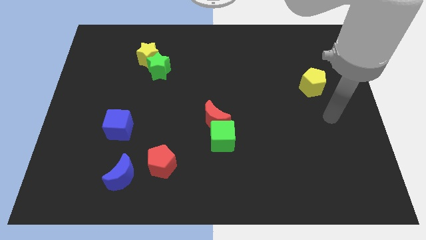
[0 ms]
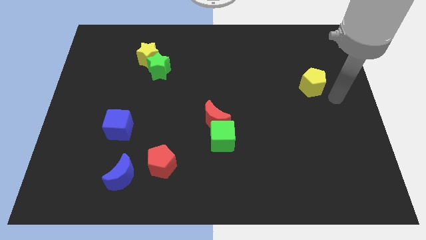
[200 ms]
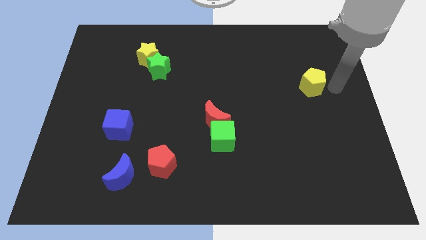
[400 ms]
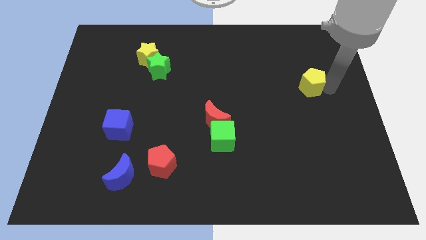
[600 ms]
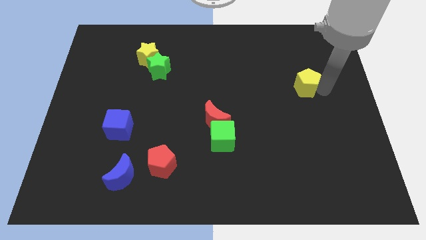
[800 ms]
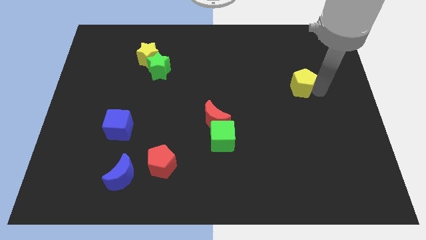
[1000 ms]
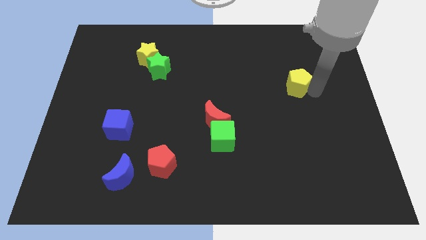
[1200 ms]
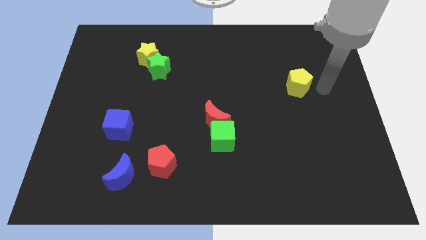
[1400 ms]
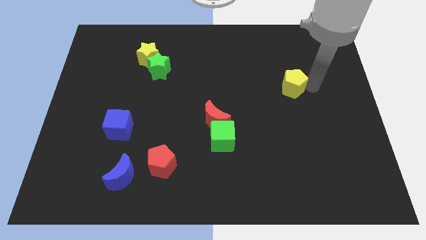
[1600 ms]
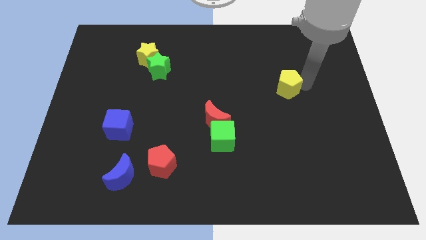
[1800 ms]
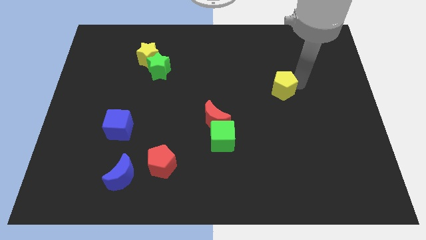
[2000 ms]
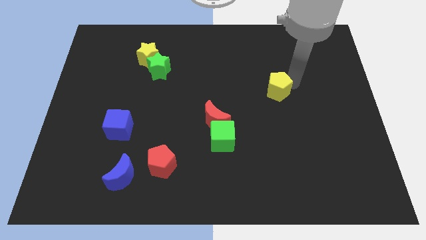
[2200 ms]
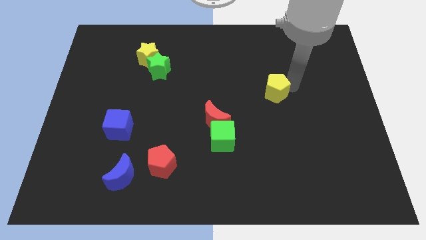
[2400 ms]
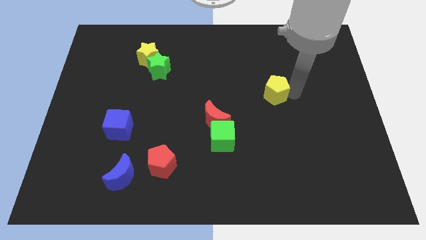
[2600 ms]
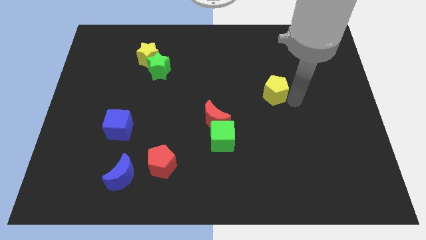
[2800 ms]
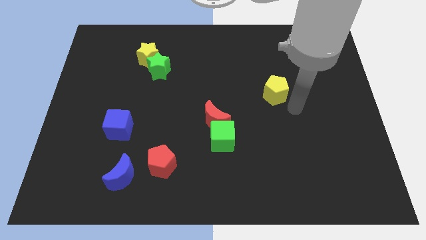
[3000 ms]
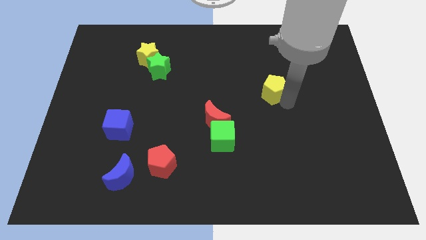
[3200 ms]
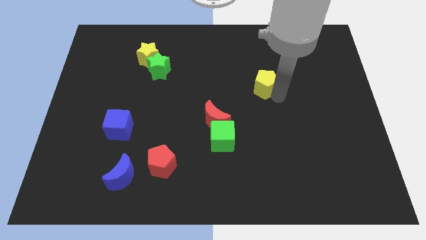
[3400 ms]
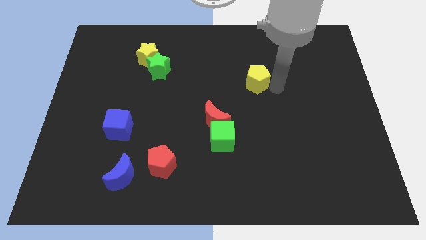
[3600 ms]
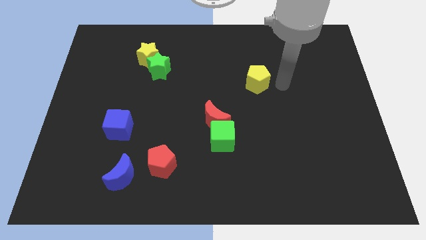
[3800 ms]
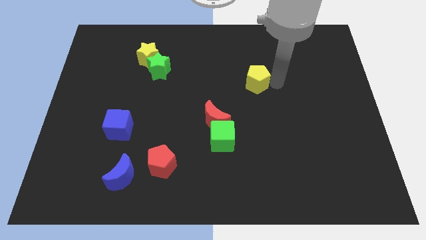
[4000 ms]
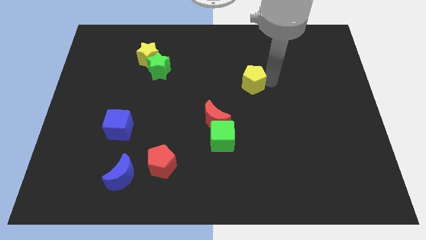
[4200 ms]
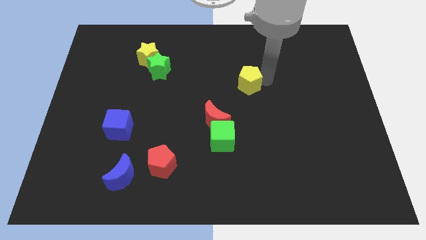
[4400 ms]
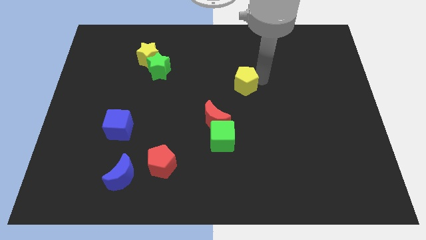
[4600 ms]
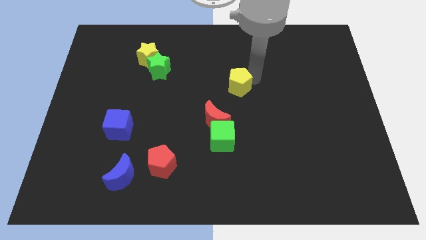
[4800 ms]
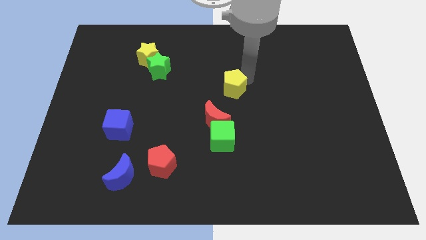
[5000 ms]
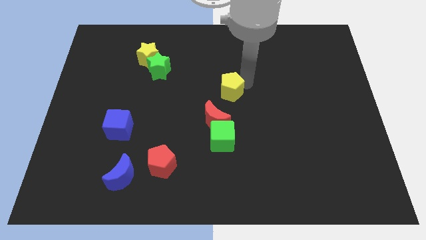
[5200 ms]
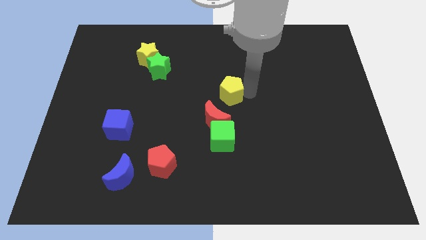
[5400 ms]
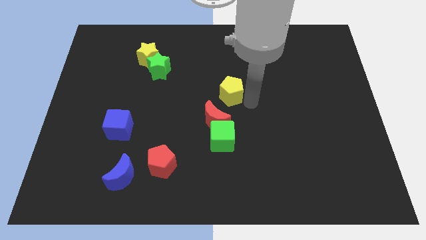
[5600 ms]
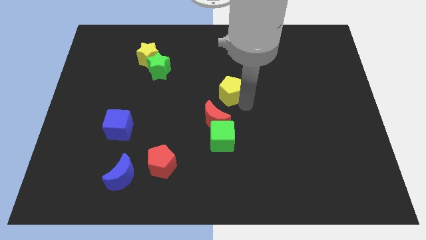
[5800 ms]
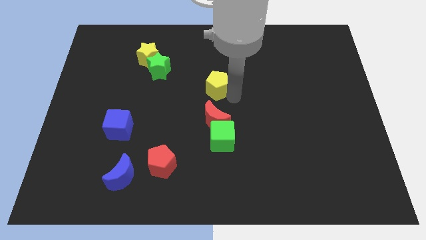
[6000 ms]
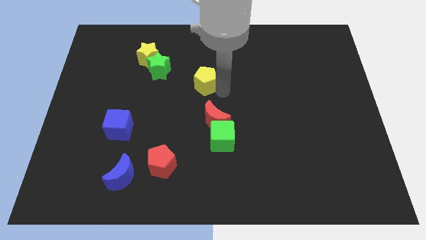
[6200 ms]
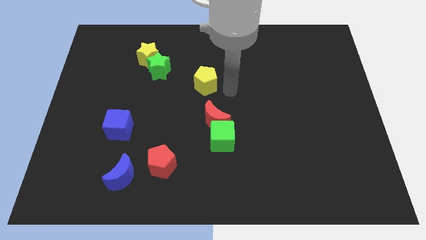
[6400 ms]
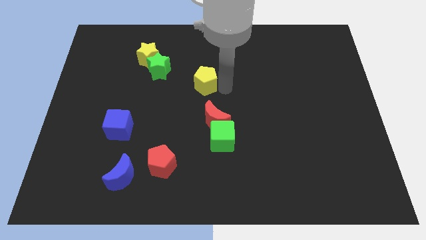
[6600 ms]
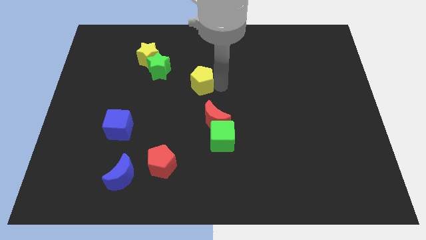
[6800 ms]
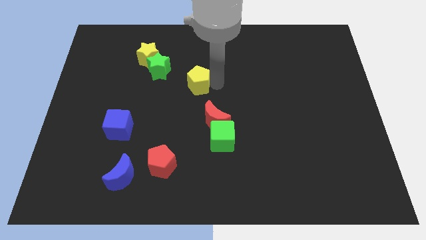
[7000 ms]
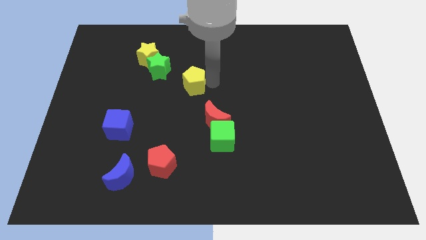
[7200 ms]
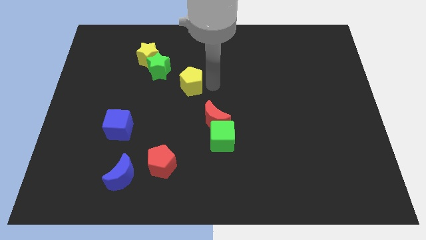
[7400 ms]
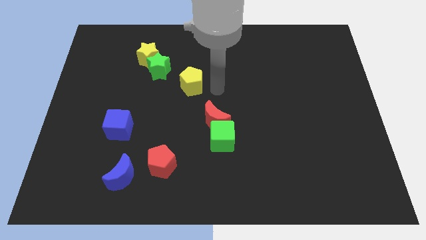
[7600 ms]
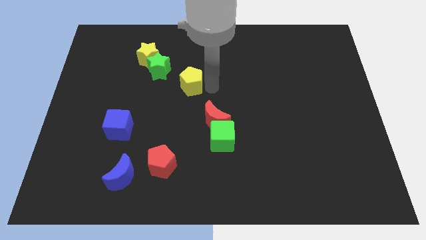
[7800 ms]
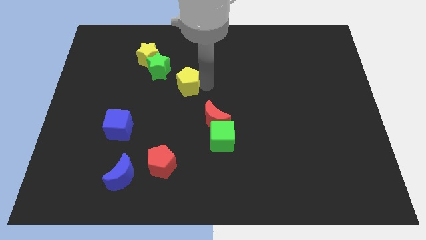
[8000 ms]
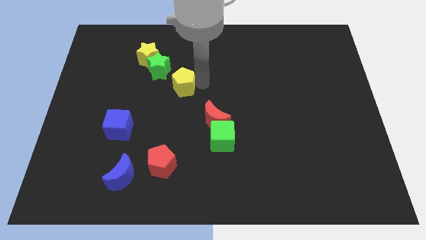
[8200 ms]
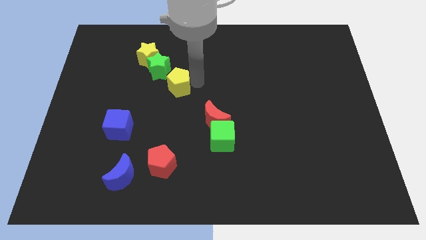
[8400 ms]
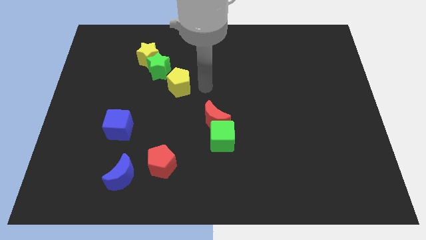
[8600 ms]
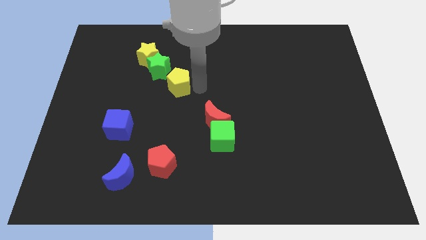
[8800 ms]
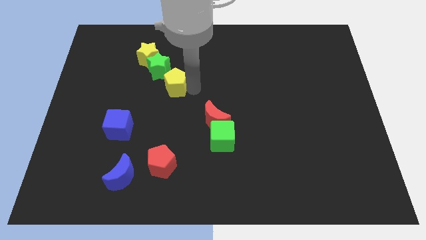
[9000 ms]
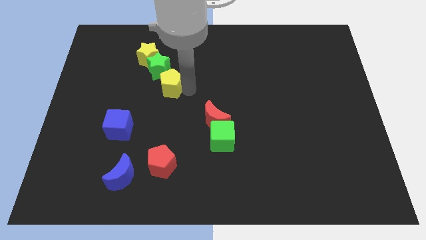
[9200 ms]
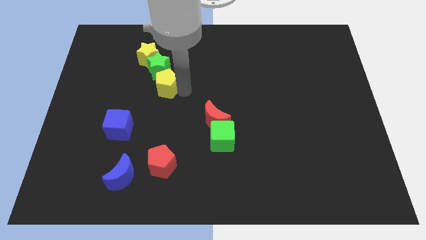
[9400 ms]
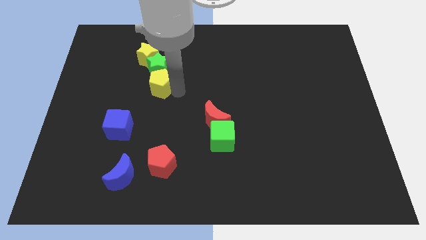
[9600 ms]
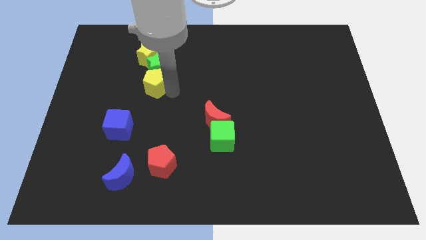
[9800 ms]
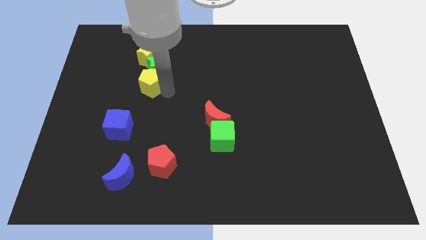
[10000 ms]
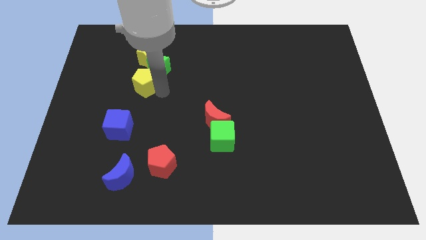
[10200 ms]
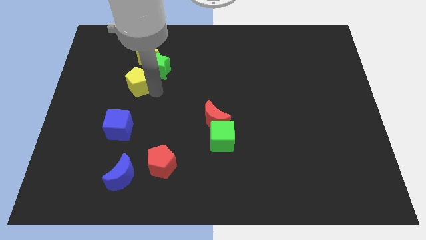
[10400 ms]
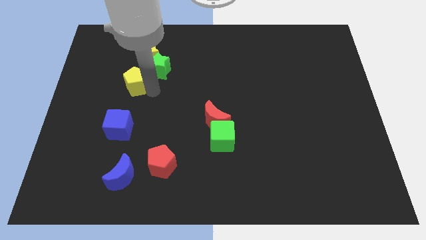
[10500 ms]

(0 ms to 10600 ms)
put the yellow pentagon to the bottom left of the yellow star

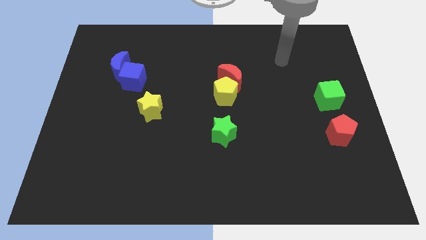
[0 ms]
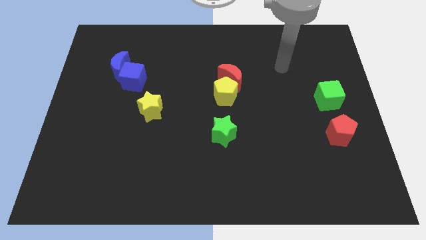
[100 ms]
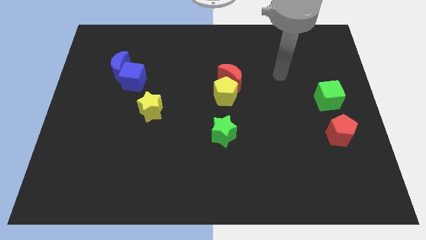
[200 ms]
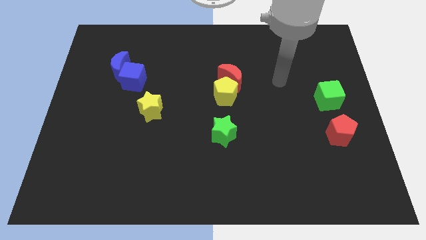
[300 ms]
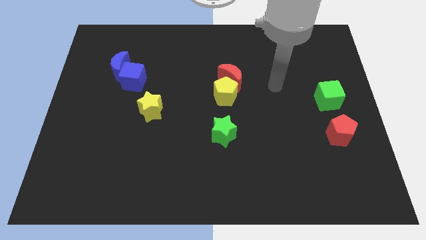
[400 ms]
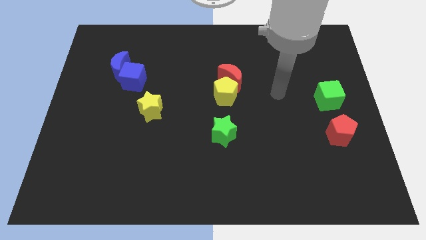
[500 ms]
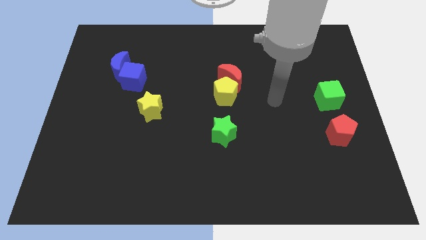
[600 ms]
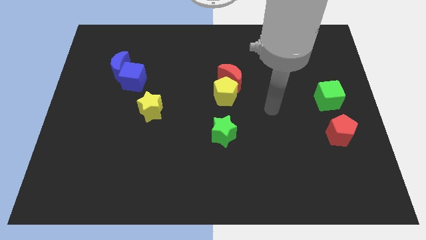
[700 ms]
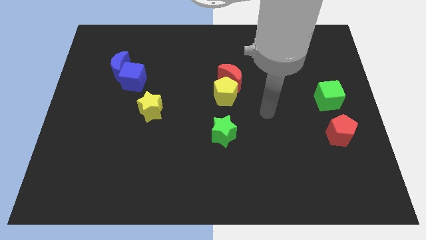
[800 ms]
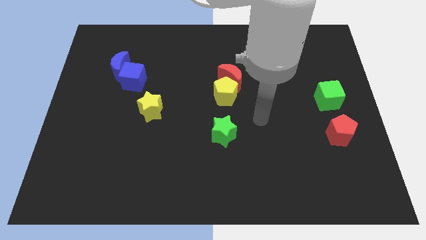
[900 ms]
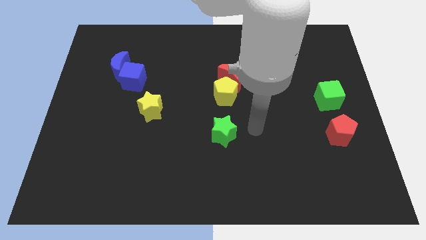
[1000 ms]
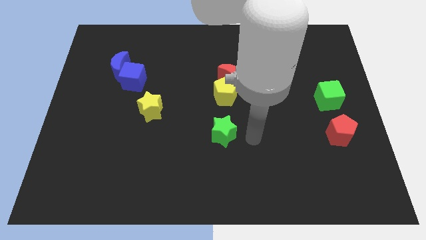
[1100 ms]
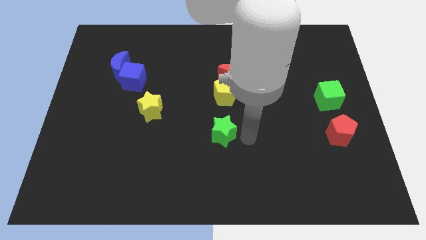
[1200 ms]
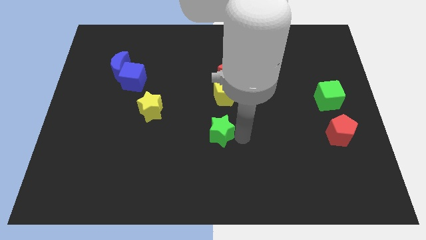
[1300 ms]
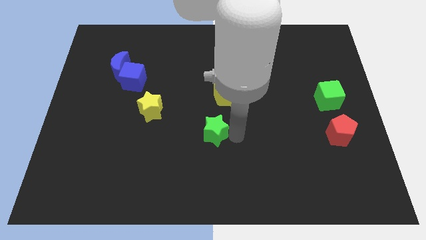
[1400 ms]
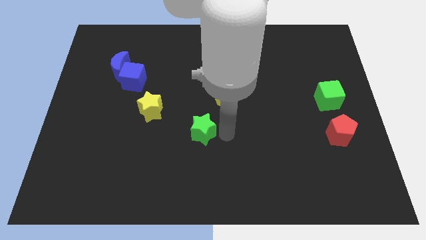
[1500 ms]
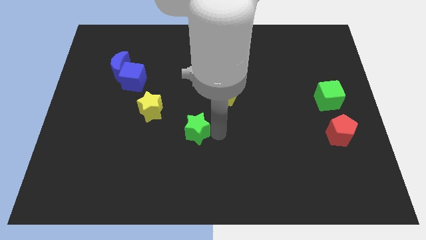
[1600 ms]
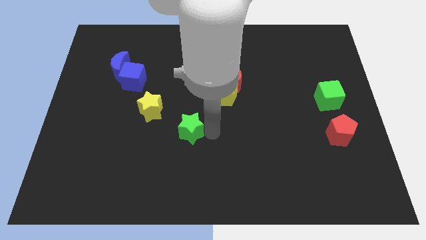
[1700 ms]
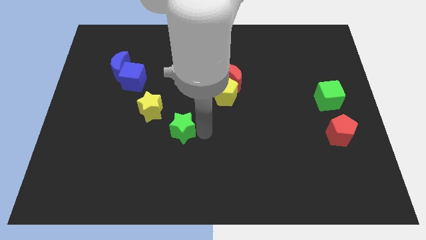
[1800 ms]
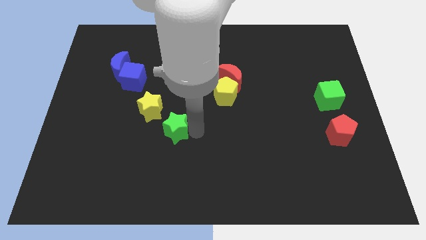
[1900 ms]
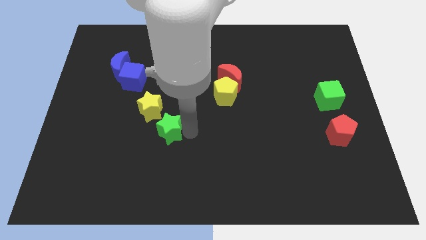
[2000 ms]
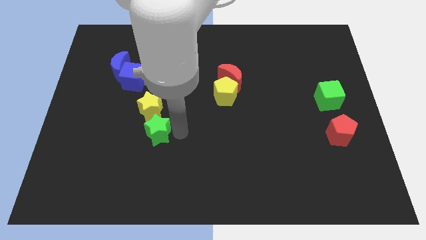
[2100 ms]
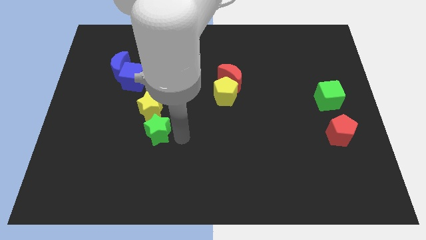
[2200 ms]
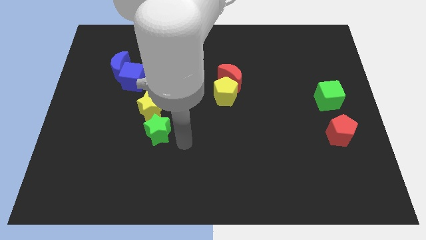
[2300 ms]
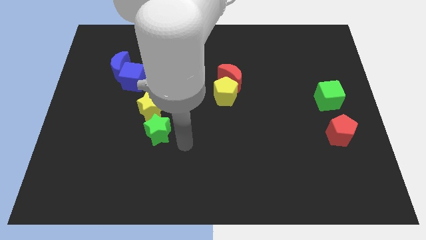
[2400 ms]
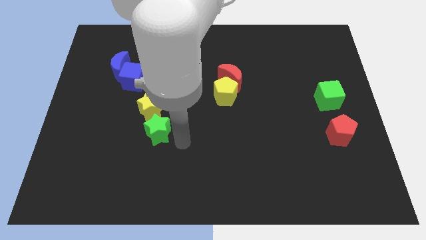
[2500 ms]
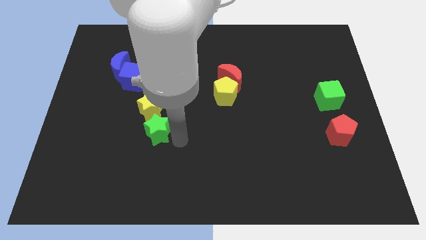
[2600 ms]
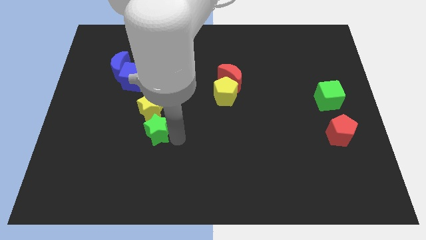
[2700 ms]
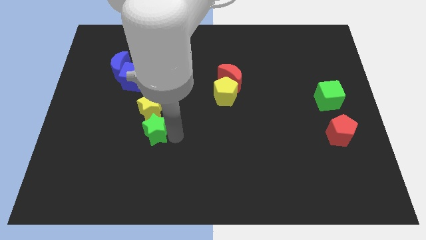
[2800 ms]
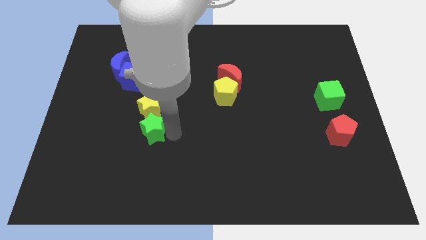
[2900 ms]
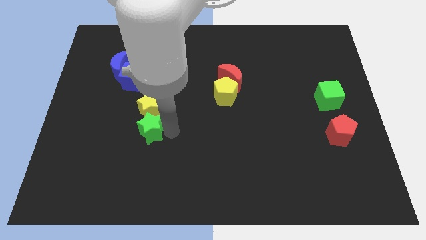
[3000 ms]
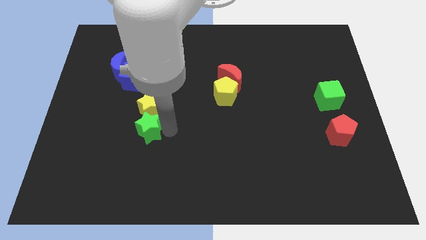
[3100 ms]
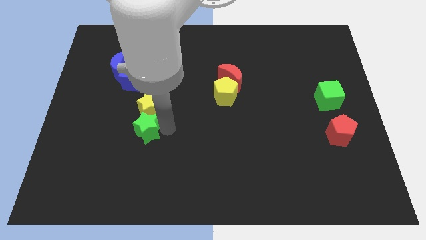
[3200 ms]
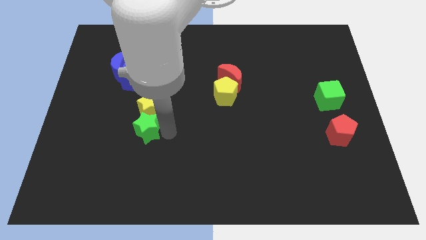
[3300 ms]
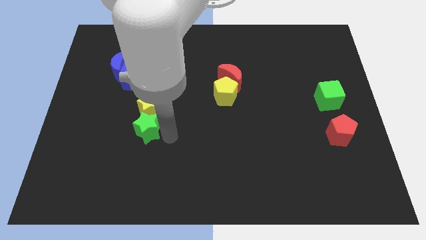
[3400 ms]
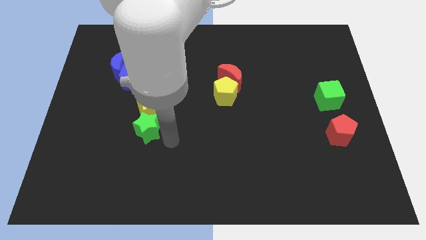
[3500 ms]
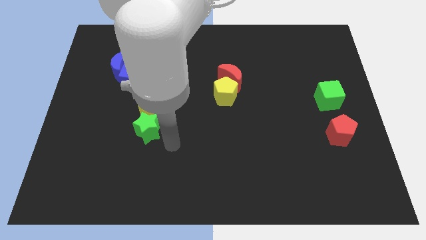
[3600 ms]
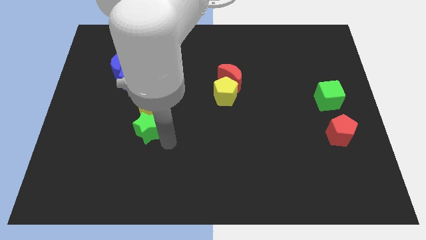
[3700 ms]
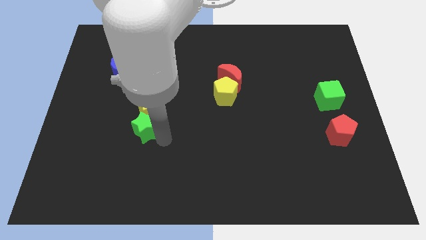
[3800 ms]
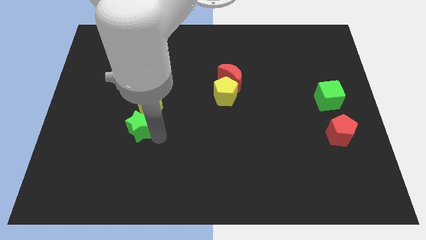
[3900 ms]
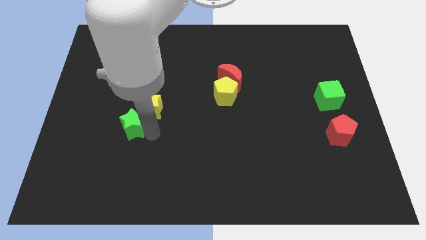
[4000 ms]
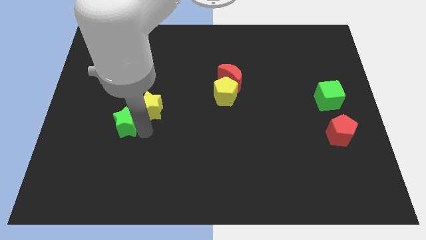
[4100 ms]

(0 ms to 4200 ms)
put the green star to the left side of the yellow star
